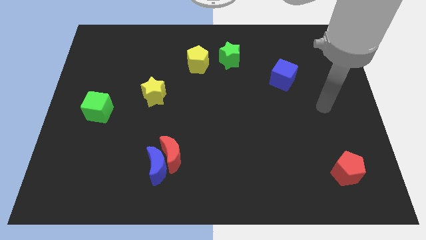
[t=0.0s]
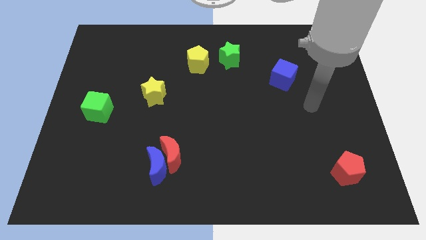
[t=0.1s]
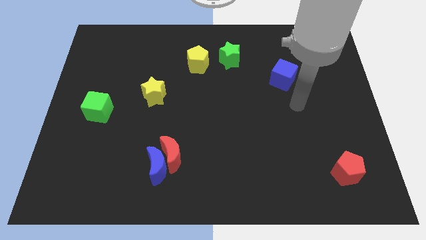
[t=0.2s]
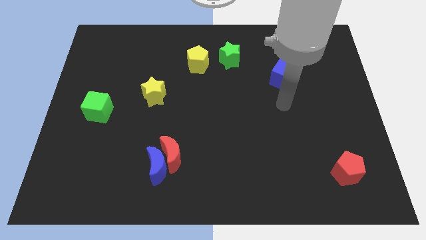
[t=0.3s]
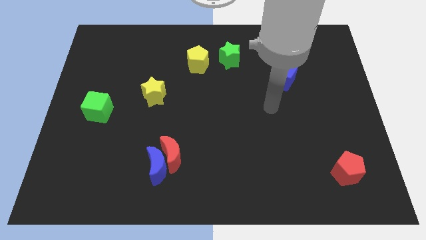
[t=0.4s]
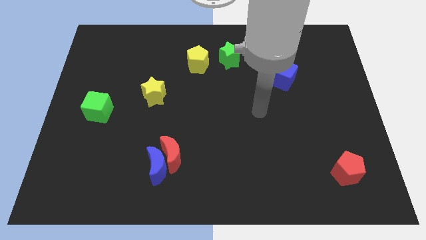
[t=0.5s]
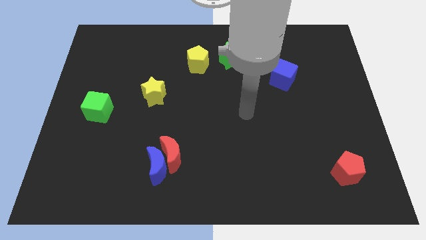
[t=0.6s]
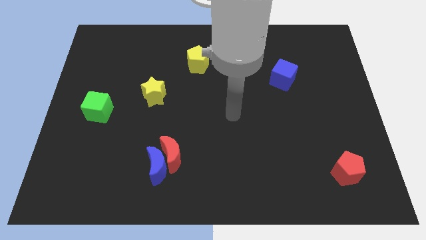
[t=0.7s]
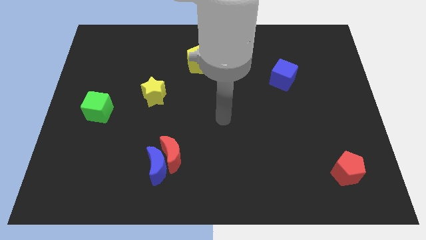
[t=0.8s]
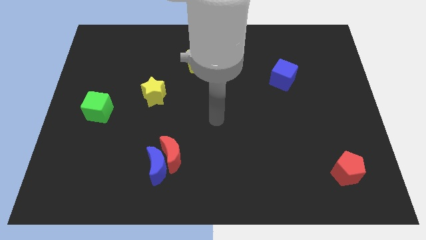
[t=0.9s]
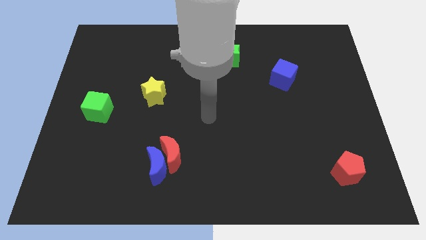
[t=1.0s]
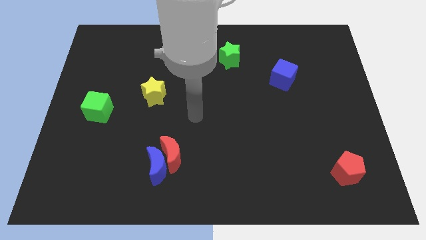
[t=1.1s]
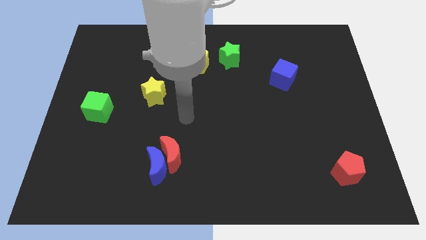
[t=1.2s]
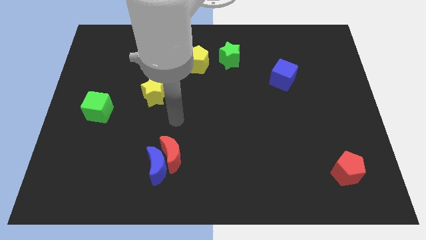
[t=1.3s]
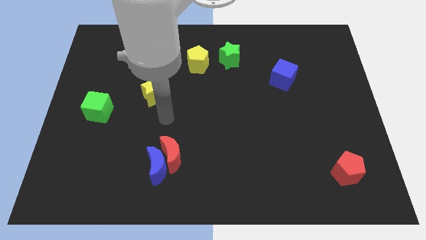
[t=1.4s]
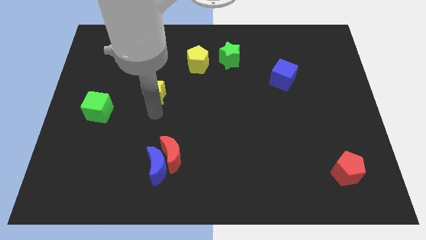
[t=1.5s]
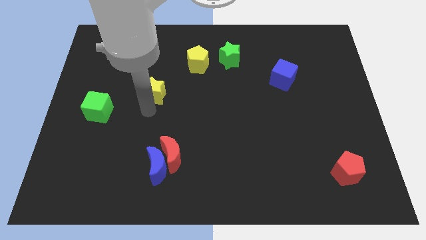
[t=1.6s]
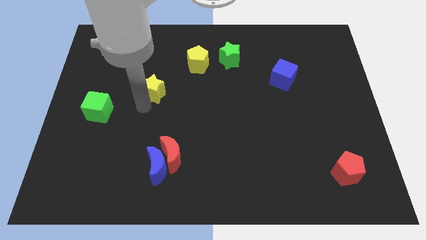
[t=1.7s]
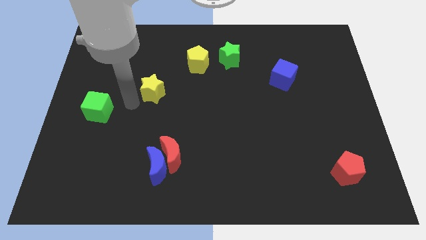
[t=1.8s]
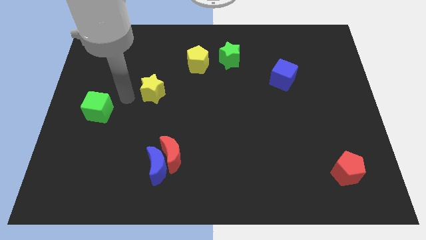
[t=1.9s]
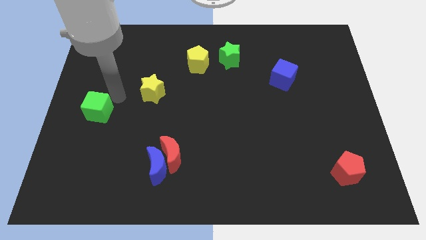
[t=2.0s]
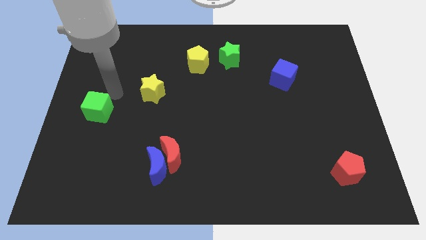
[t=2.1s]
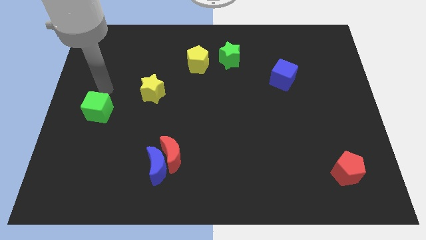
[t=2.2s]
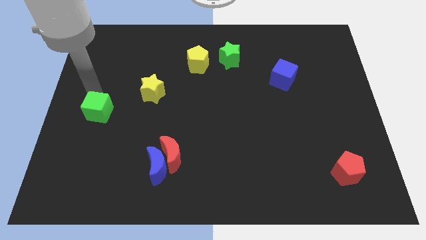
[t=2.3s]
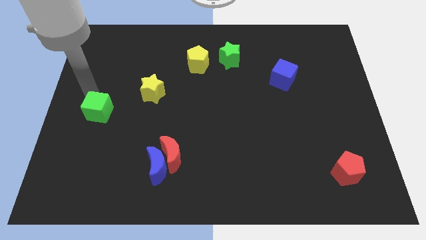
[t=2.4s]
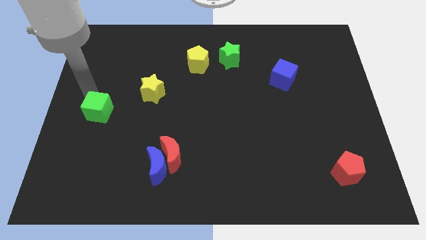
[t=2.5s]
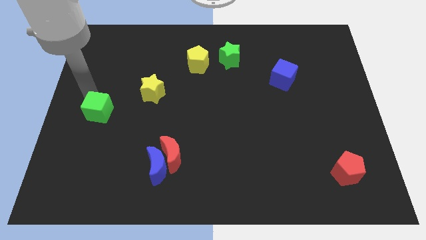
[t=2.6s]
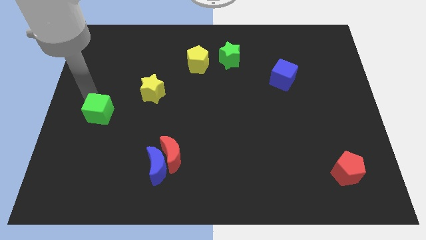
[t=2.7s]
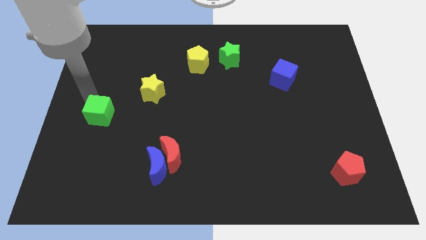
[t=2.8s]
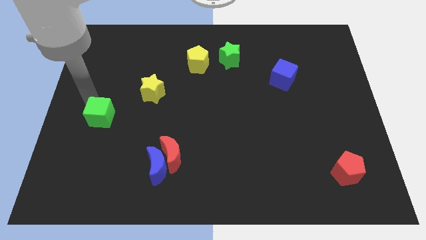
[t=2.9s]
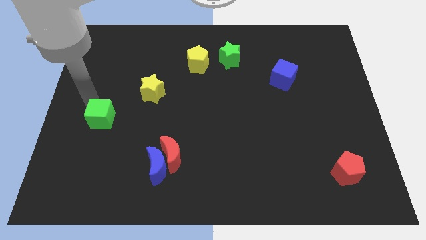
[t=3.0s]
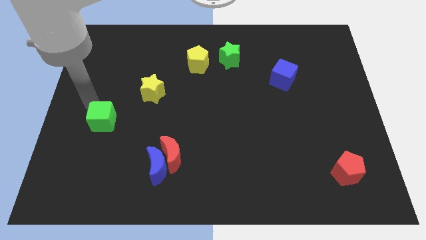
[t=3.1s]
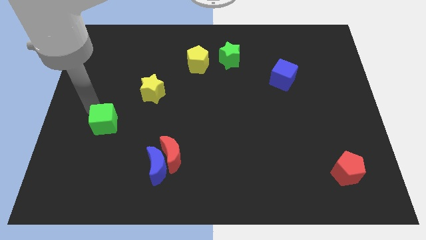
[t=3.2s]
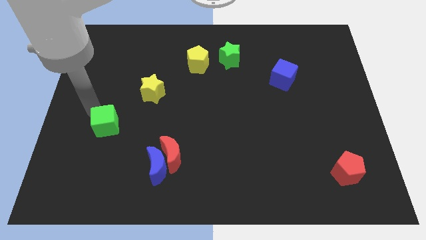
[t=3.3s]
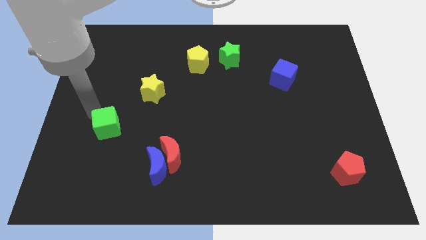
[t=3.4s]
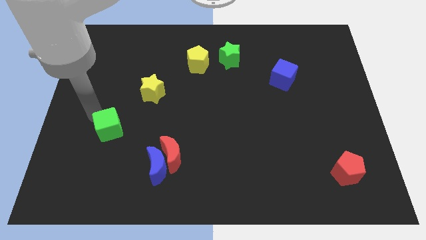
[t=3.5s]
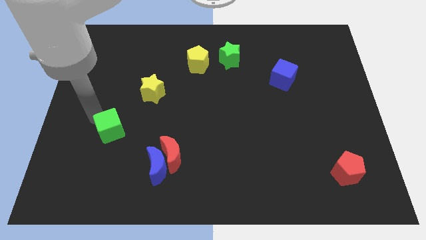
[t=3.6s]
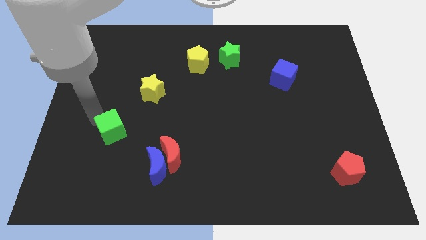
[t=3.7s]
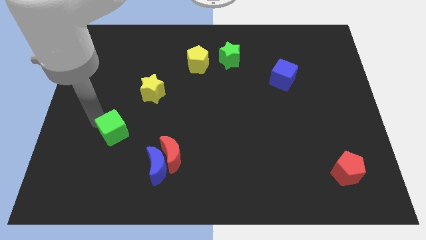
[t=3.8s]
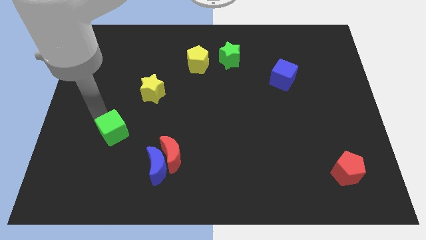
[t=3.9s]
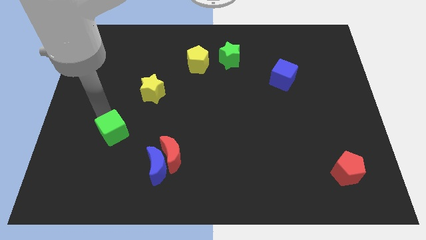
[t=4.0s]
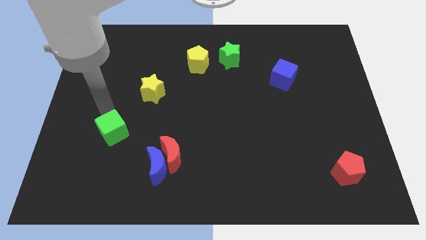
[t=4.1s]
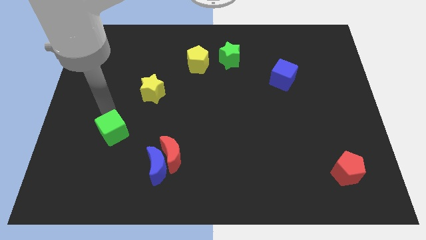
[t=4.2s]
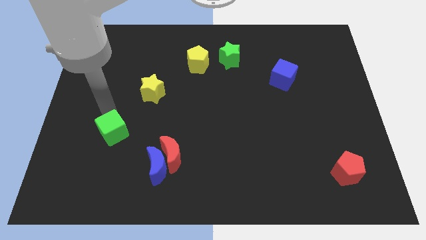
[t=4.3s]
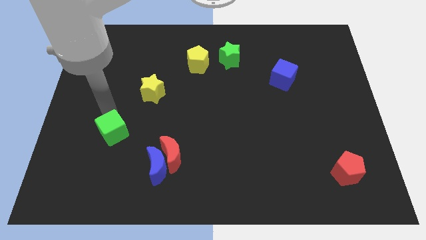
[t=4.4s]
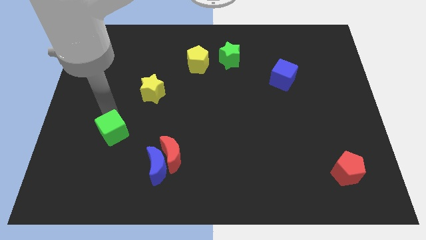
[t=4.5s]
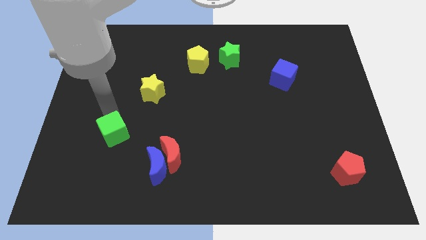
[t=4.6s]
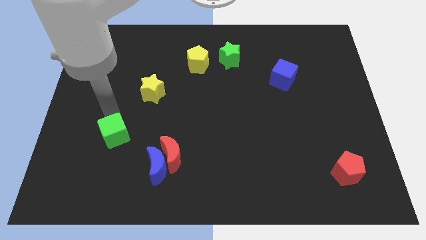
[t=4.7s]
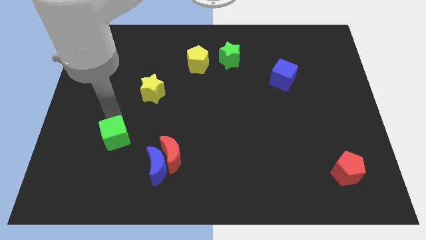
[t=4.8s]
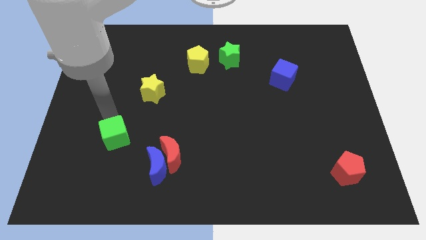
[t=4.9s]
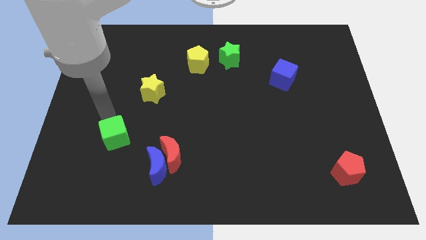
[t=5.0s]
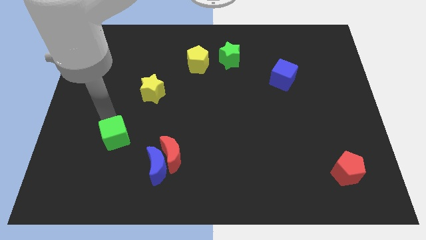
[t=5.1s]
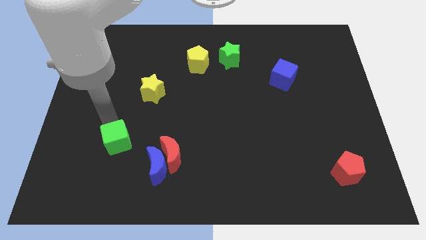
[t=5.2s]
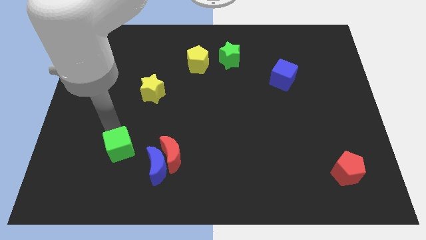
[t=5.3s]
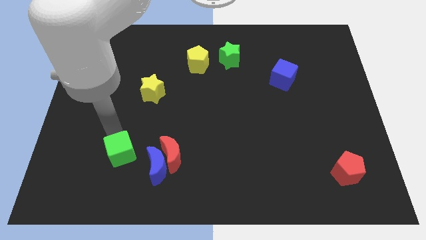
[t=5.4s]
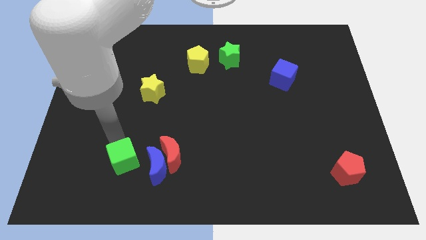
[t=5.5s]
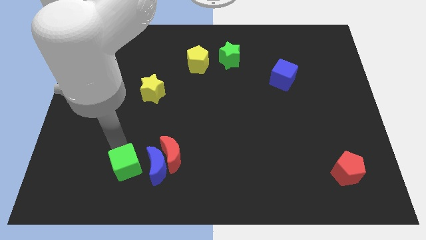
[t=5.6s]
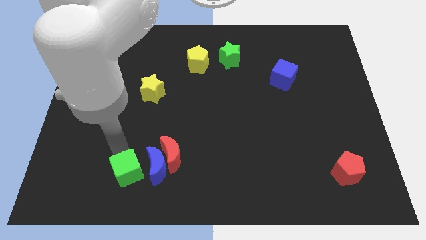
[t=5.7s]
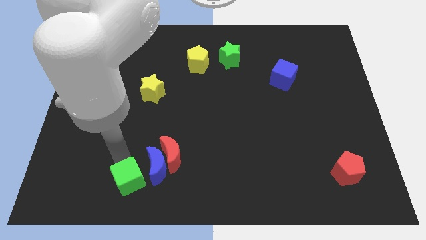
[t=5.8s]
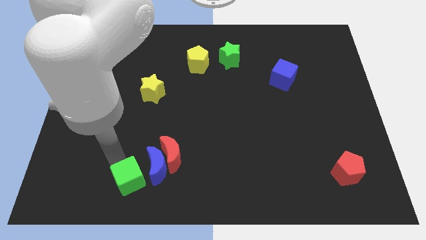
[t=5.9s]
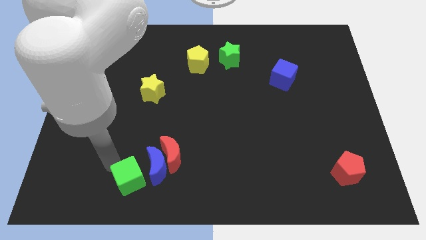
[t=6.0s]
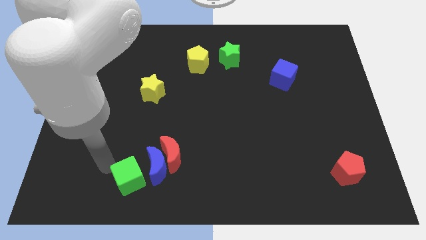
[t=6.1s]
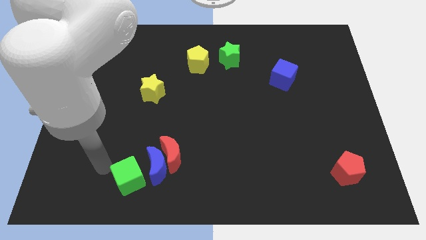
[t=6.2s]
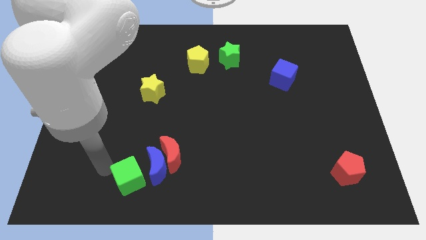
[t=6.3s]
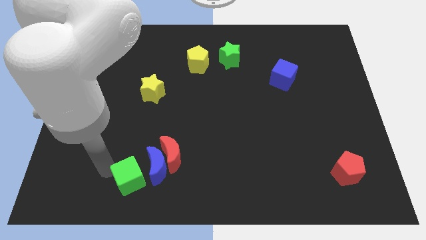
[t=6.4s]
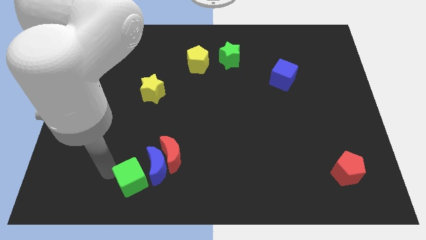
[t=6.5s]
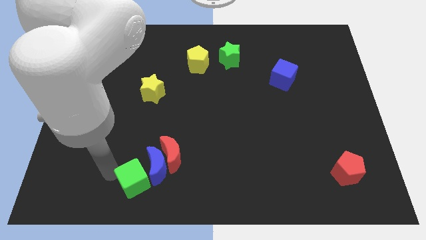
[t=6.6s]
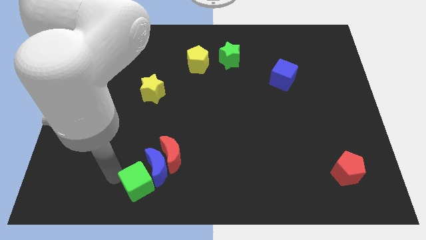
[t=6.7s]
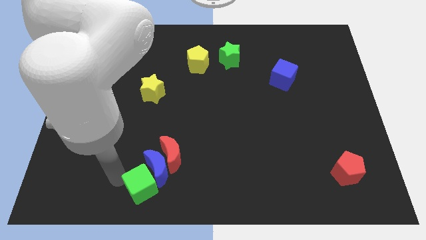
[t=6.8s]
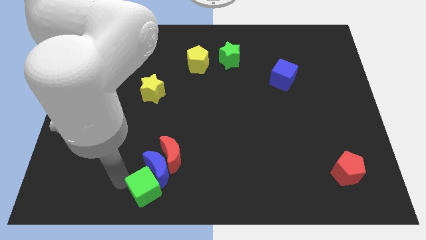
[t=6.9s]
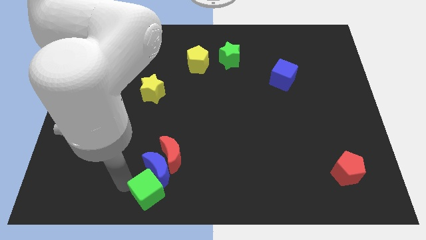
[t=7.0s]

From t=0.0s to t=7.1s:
slide the green cube to the bottom side
